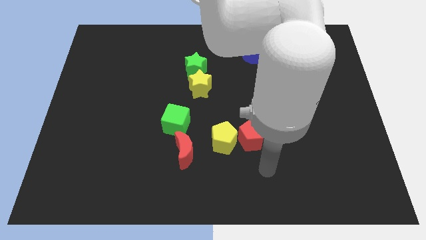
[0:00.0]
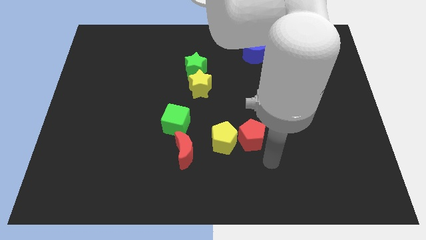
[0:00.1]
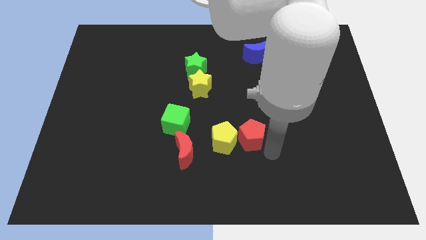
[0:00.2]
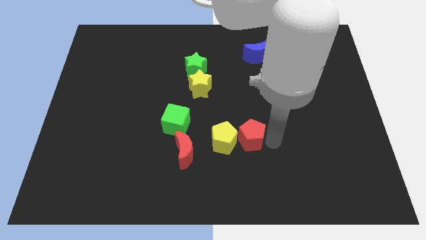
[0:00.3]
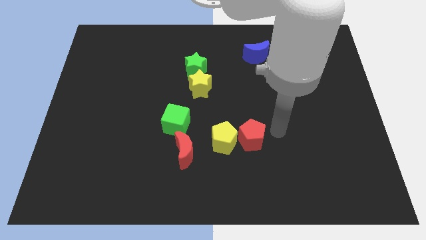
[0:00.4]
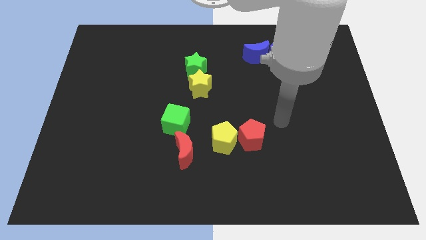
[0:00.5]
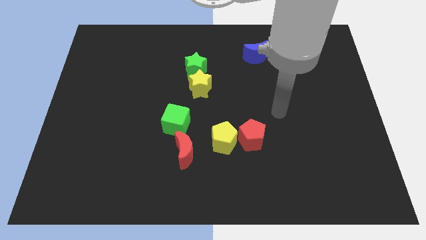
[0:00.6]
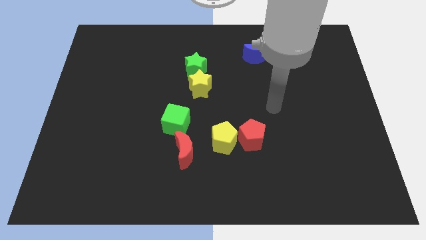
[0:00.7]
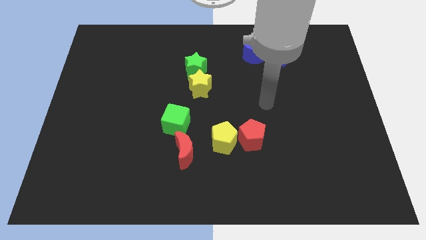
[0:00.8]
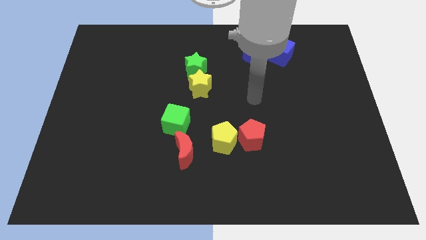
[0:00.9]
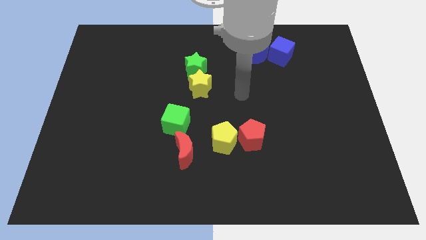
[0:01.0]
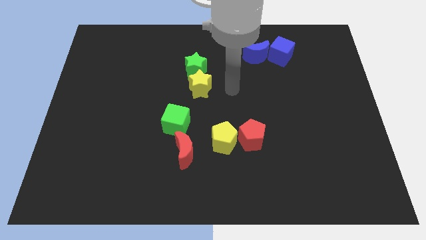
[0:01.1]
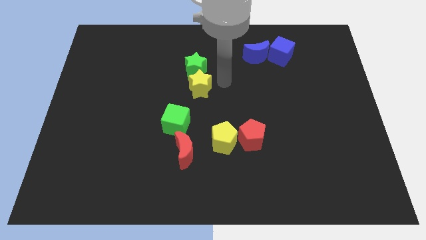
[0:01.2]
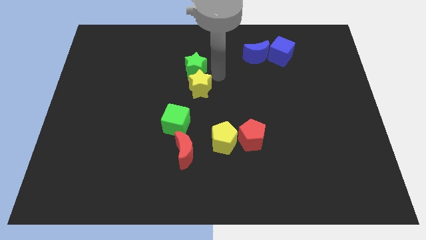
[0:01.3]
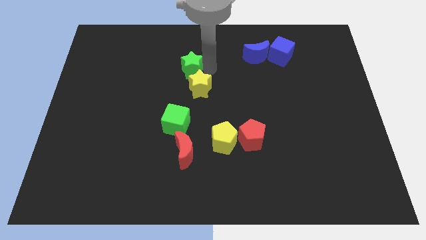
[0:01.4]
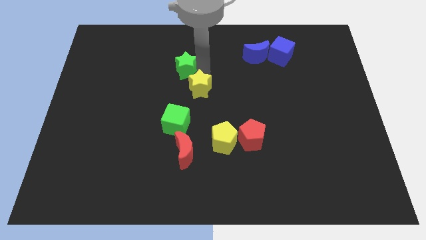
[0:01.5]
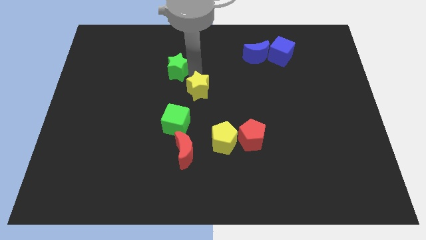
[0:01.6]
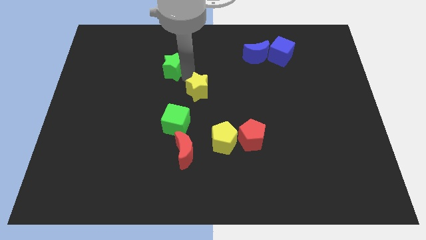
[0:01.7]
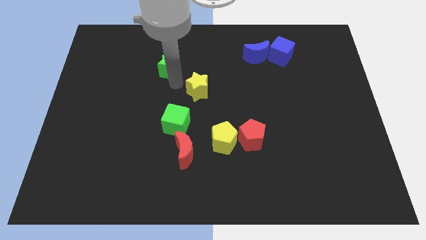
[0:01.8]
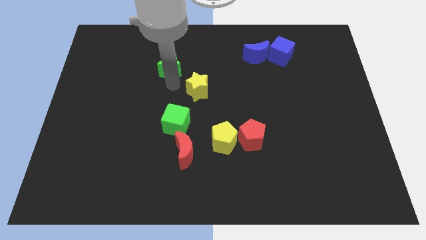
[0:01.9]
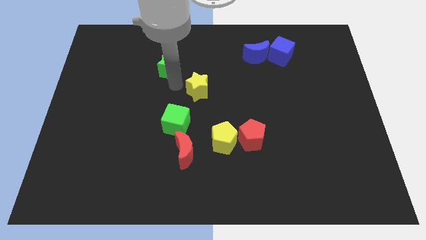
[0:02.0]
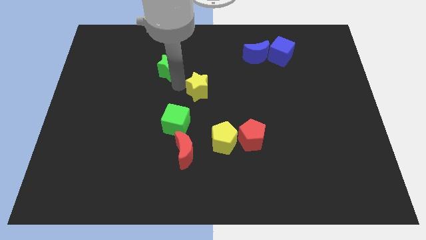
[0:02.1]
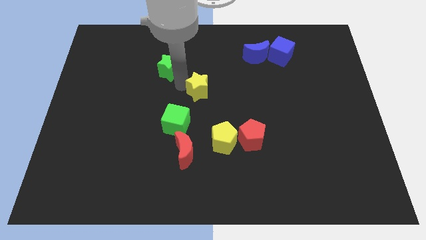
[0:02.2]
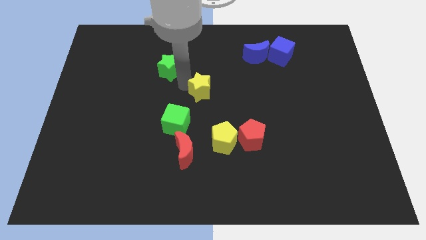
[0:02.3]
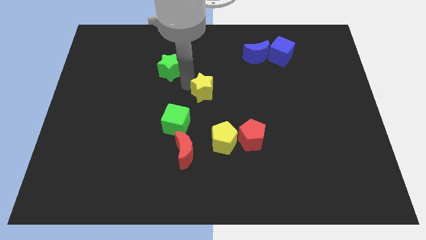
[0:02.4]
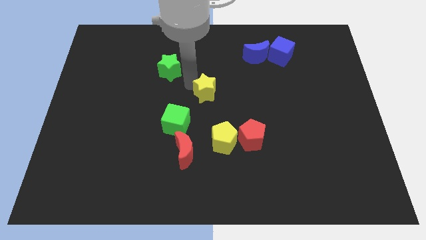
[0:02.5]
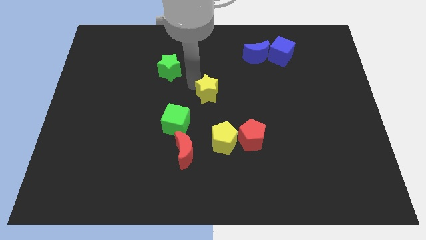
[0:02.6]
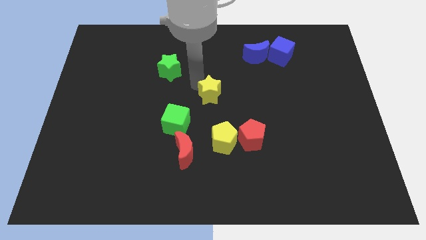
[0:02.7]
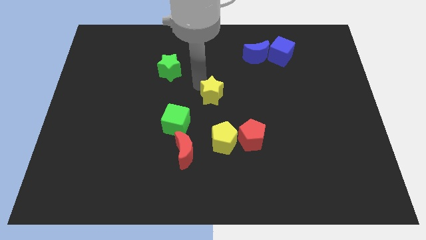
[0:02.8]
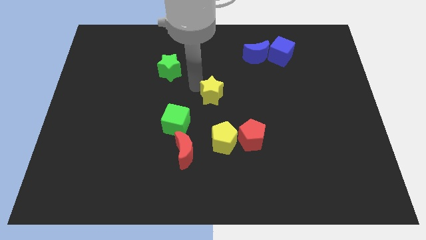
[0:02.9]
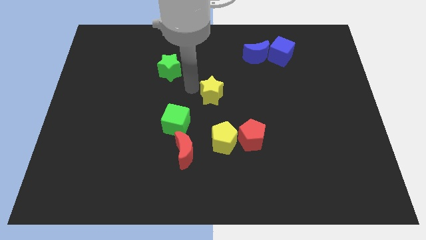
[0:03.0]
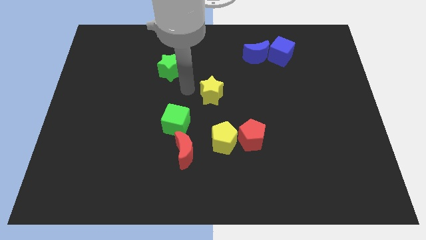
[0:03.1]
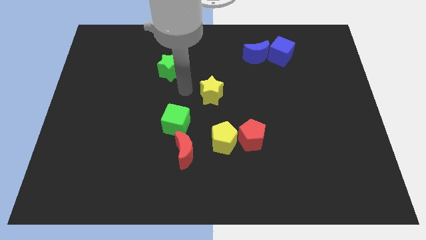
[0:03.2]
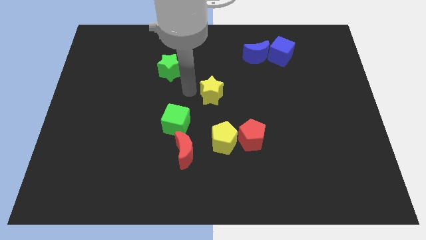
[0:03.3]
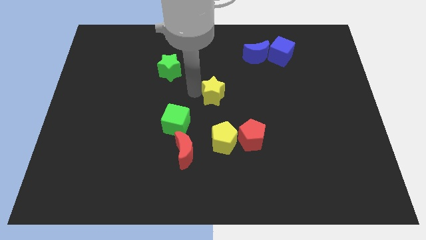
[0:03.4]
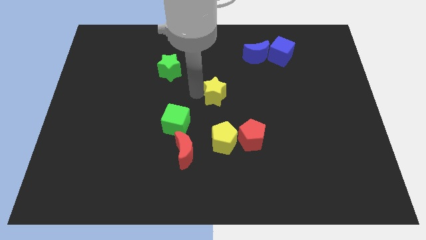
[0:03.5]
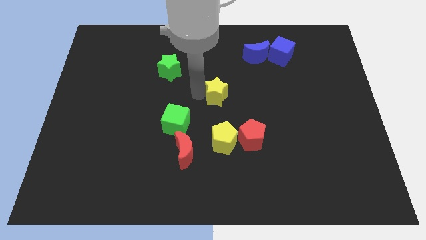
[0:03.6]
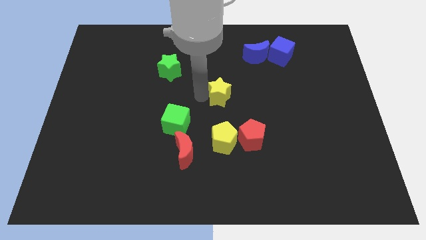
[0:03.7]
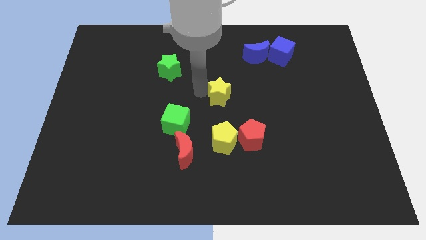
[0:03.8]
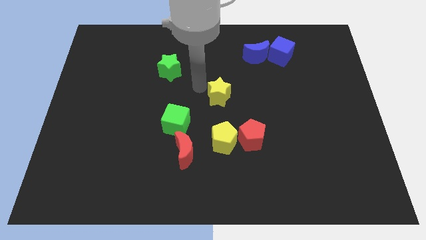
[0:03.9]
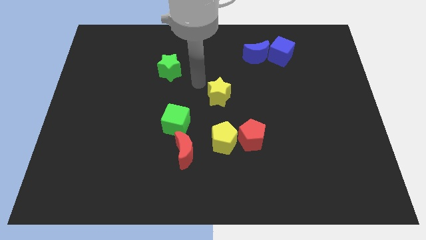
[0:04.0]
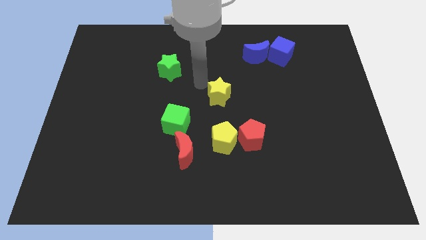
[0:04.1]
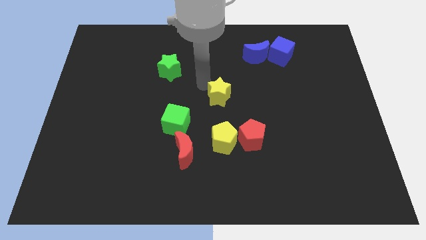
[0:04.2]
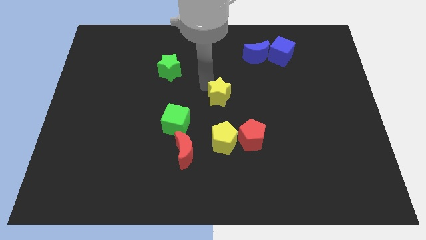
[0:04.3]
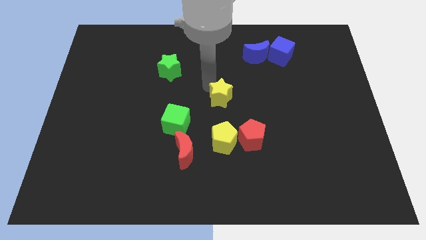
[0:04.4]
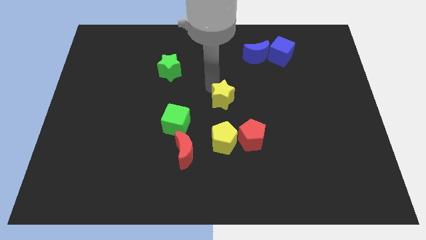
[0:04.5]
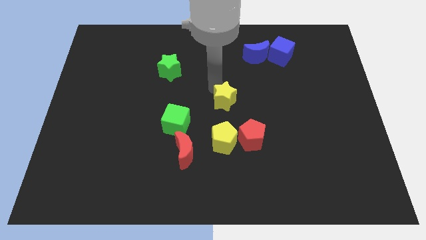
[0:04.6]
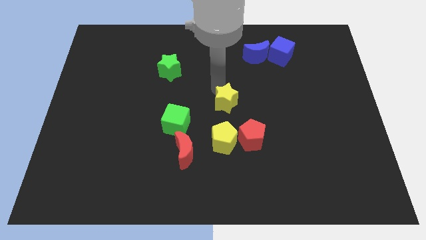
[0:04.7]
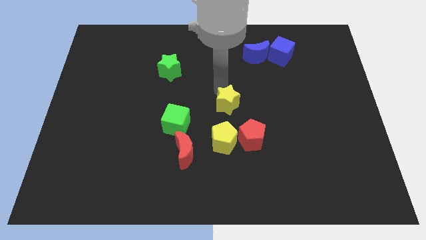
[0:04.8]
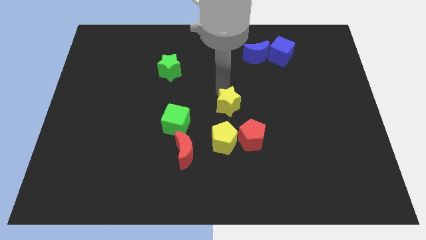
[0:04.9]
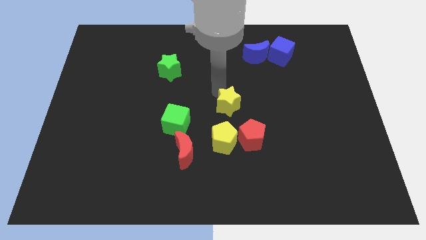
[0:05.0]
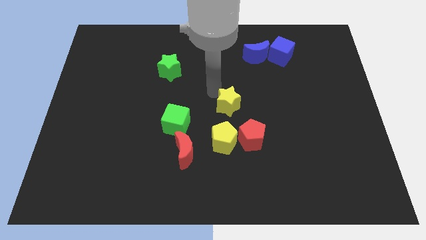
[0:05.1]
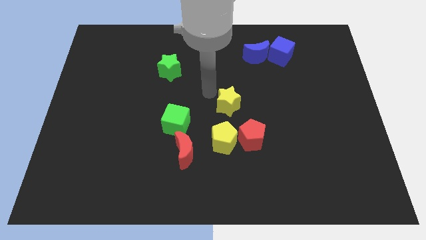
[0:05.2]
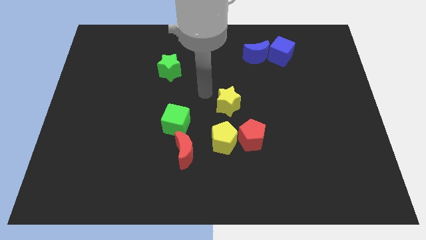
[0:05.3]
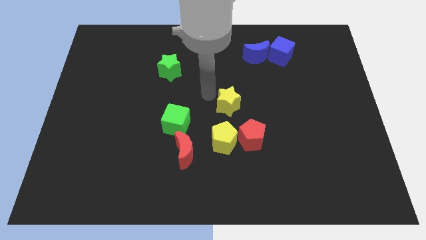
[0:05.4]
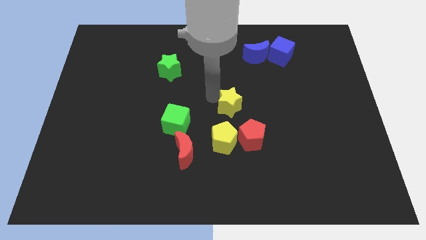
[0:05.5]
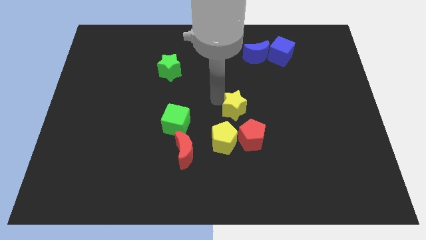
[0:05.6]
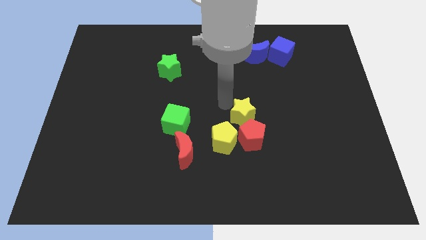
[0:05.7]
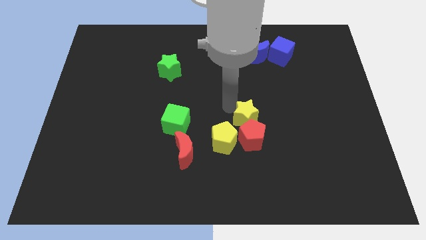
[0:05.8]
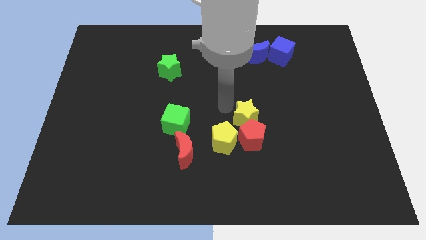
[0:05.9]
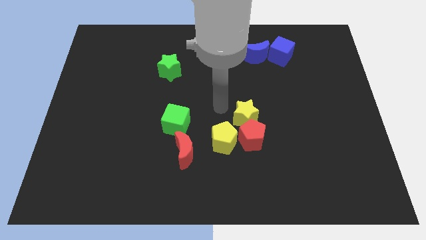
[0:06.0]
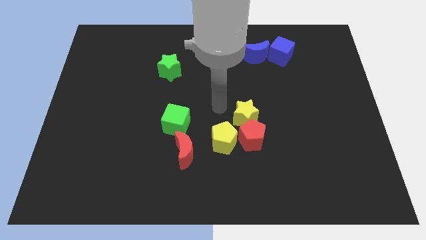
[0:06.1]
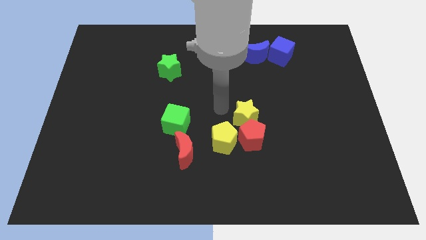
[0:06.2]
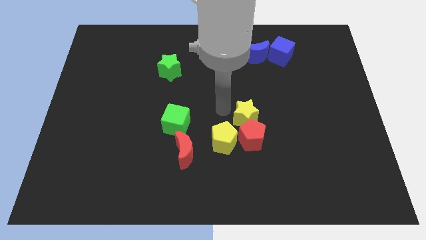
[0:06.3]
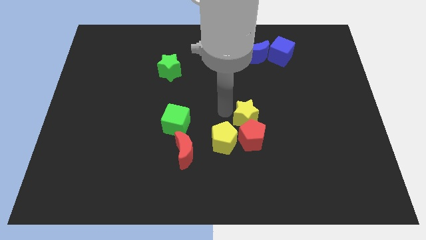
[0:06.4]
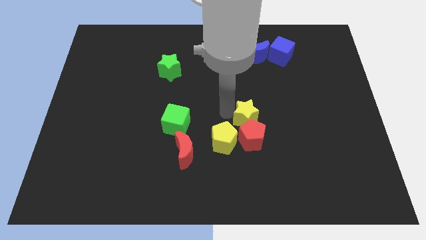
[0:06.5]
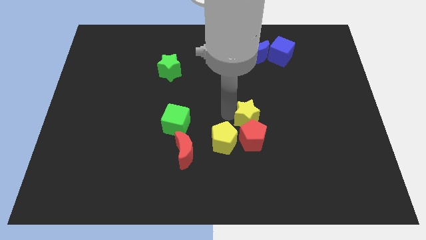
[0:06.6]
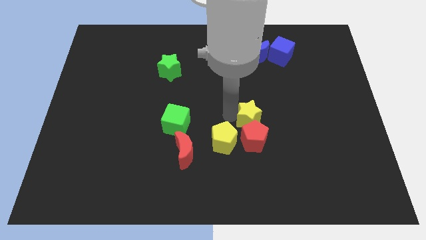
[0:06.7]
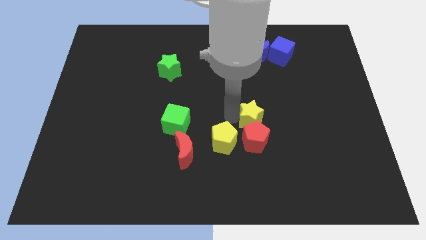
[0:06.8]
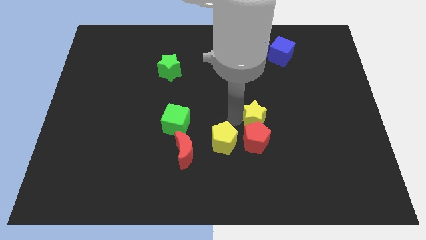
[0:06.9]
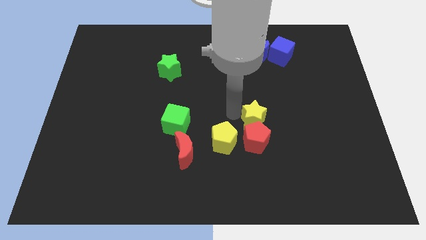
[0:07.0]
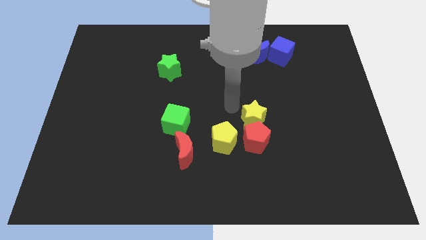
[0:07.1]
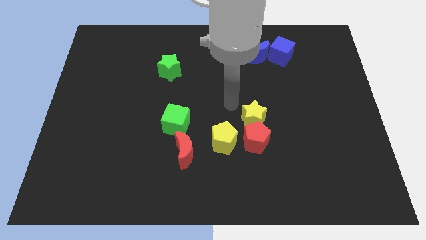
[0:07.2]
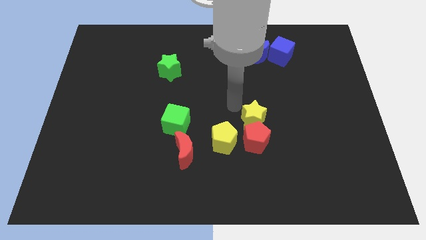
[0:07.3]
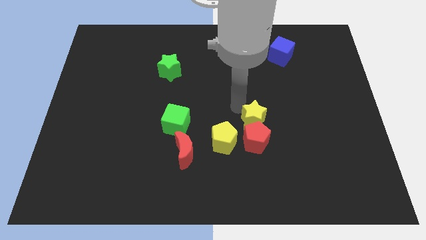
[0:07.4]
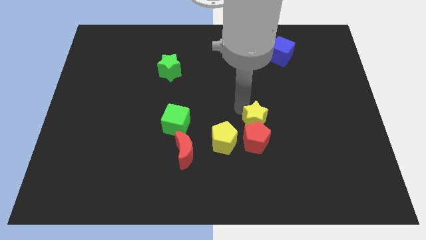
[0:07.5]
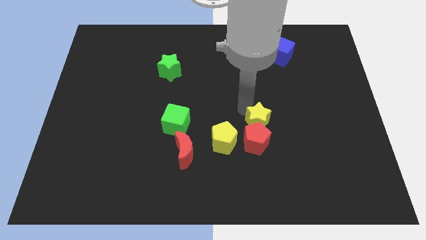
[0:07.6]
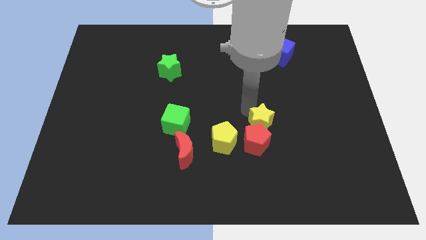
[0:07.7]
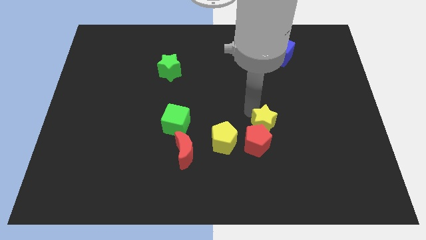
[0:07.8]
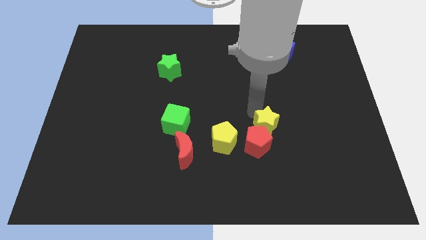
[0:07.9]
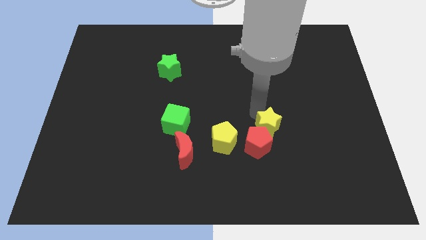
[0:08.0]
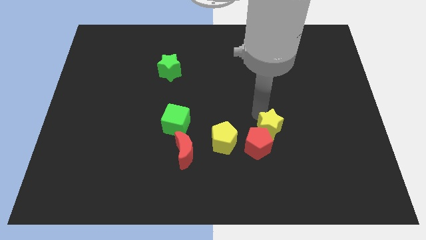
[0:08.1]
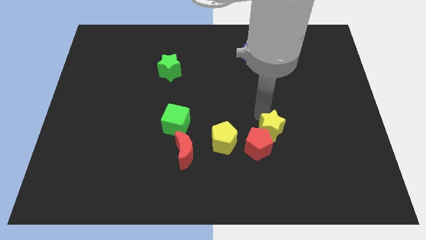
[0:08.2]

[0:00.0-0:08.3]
slide the yellow star downwards and then to the right
